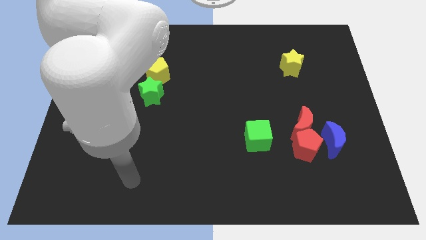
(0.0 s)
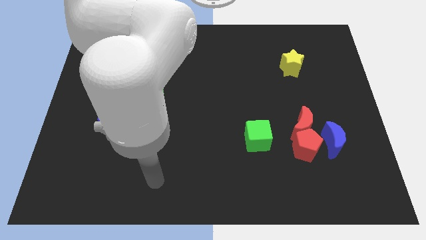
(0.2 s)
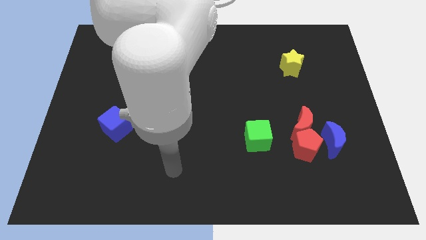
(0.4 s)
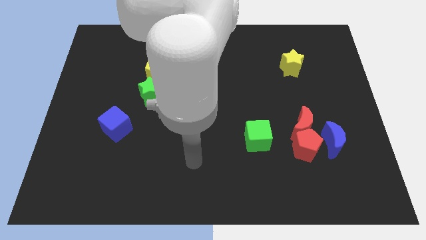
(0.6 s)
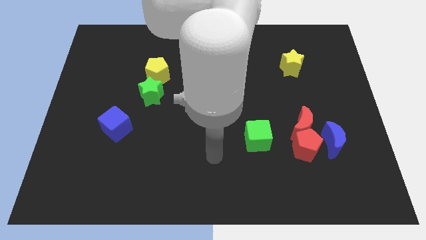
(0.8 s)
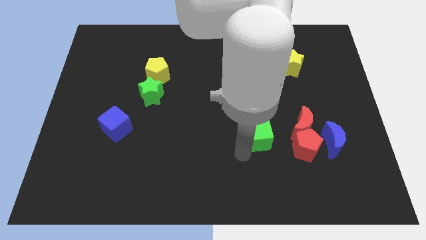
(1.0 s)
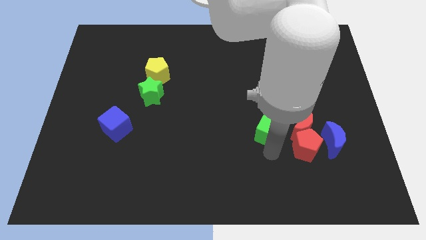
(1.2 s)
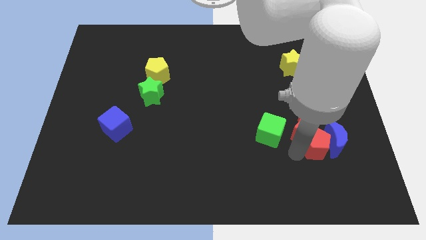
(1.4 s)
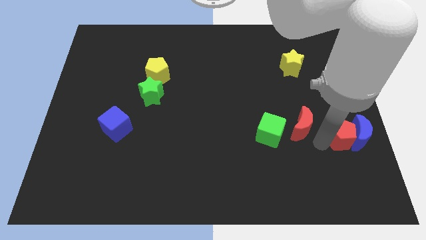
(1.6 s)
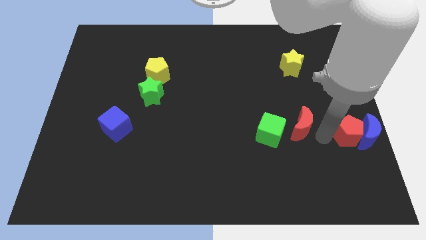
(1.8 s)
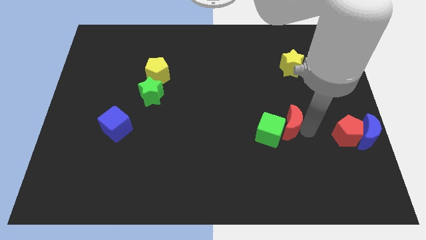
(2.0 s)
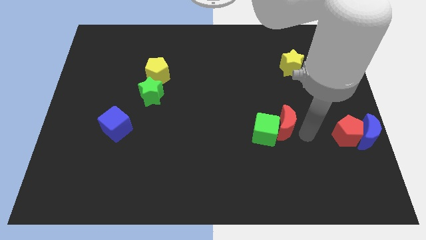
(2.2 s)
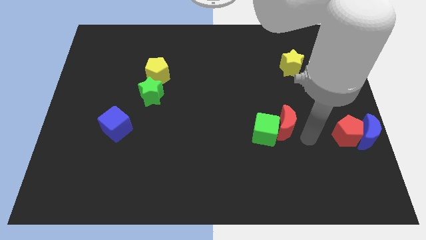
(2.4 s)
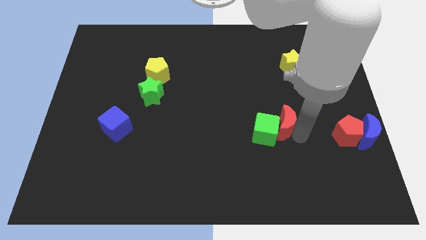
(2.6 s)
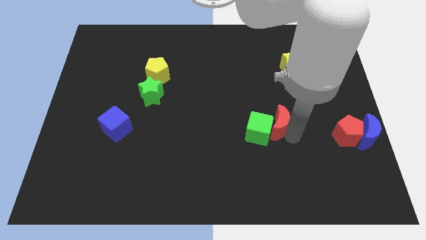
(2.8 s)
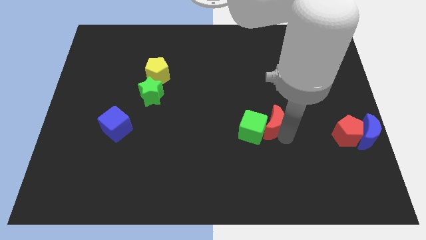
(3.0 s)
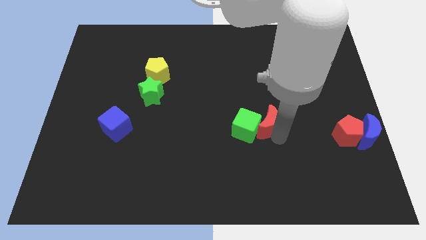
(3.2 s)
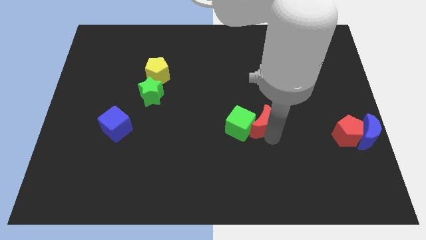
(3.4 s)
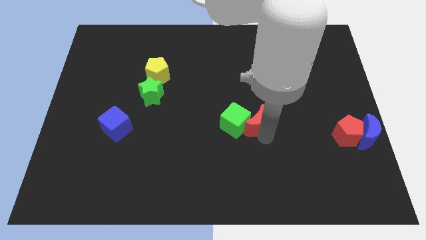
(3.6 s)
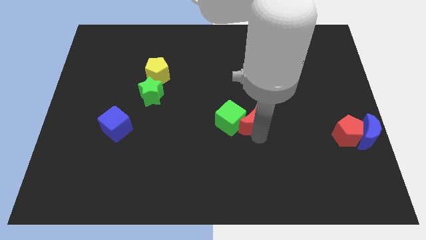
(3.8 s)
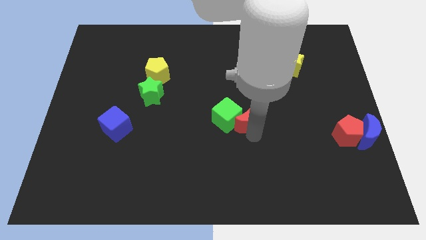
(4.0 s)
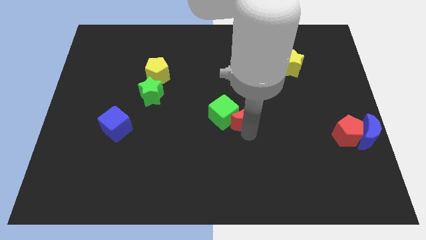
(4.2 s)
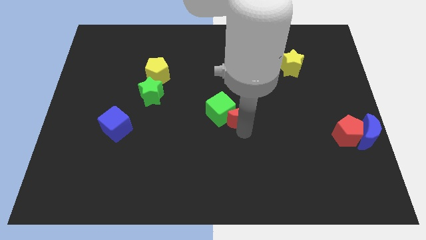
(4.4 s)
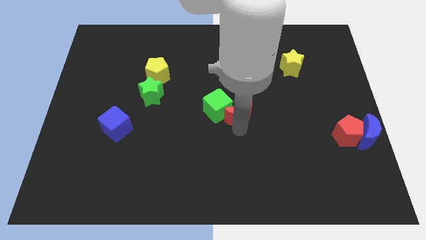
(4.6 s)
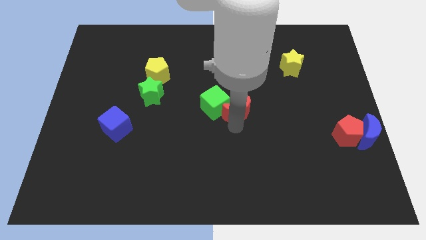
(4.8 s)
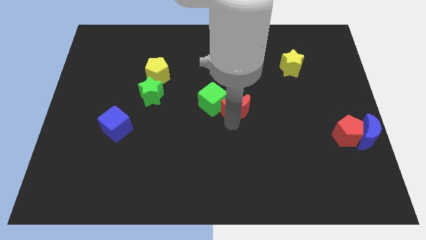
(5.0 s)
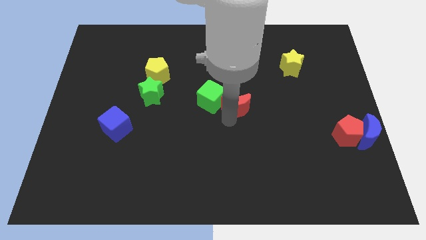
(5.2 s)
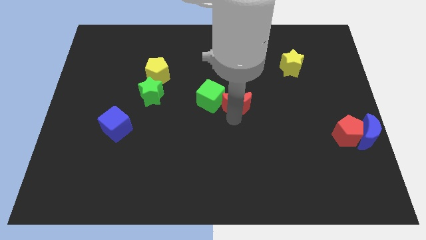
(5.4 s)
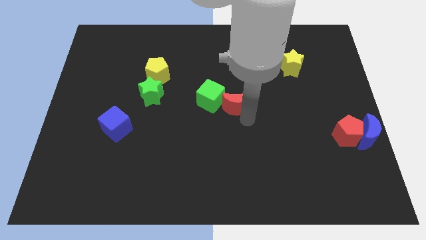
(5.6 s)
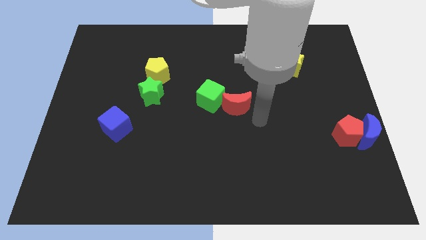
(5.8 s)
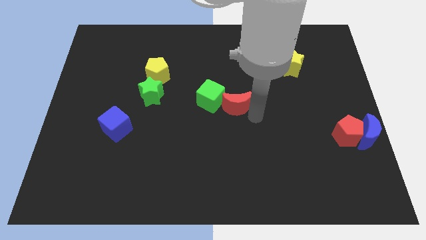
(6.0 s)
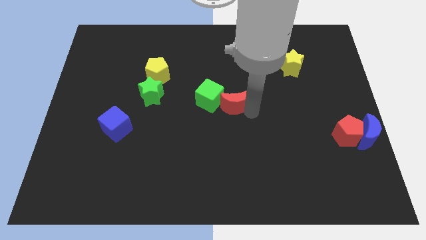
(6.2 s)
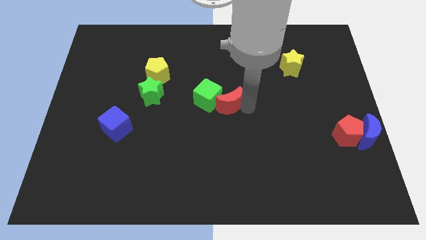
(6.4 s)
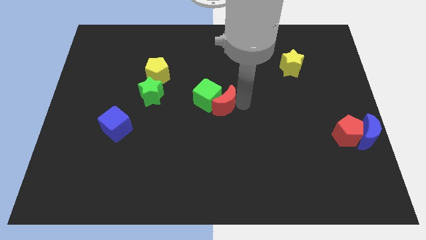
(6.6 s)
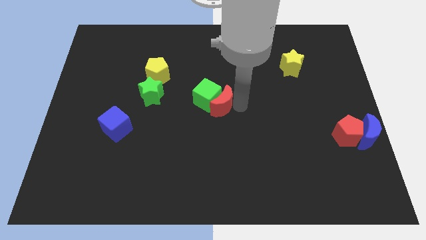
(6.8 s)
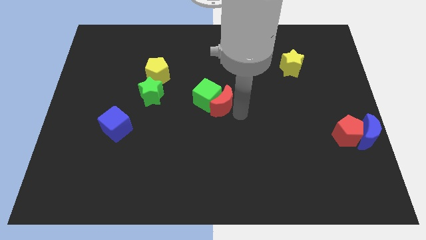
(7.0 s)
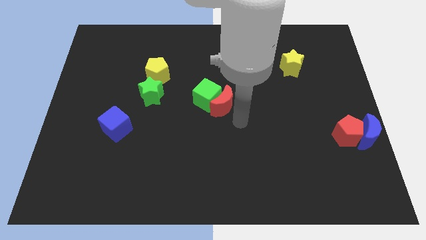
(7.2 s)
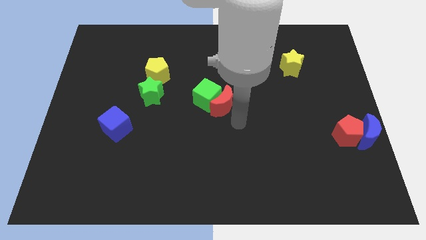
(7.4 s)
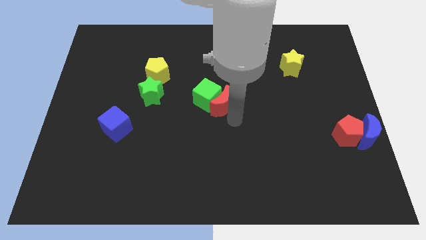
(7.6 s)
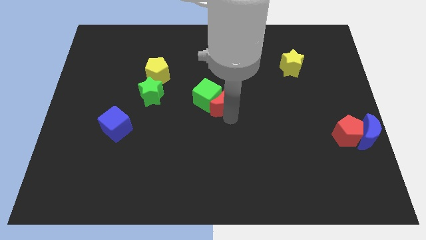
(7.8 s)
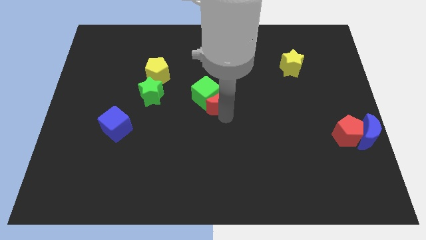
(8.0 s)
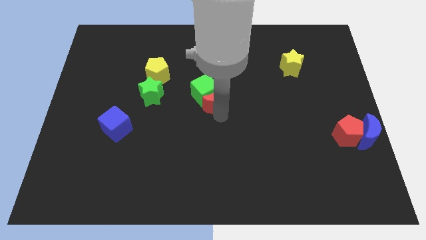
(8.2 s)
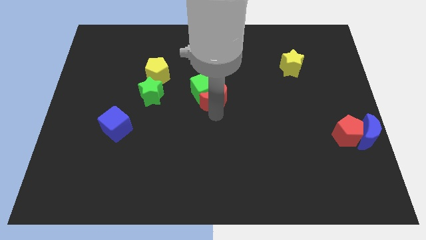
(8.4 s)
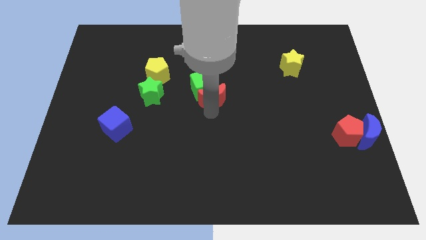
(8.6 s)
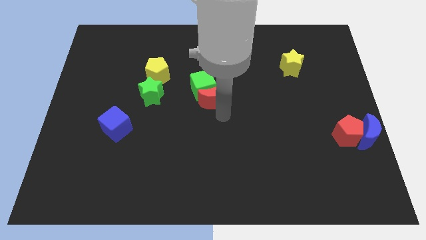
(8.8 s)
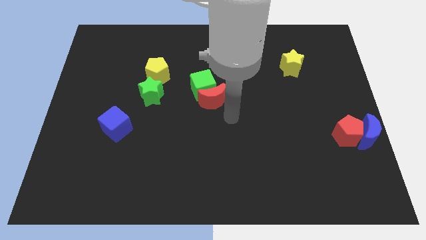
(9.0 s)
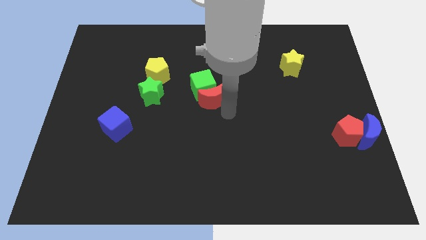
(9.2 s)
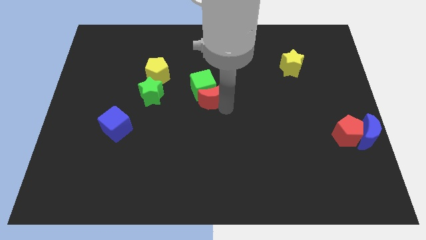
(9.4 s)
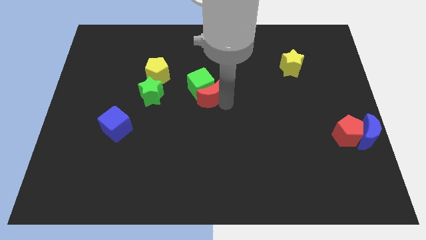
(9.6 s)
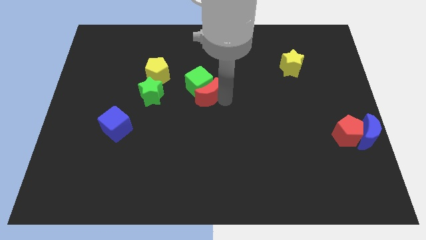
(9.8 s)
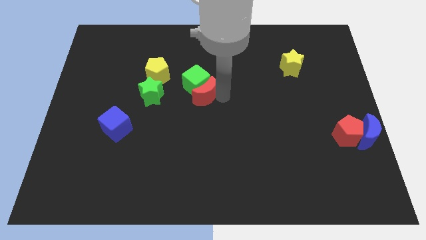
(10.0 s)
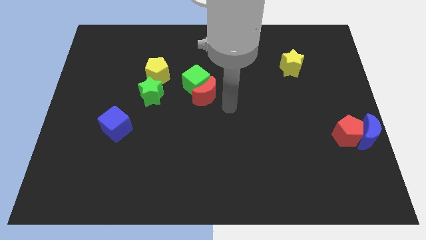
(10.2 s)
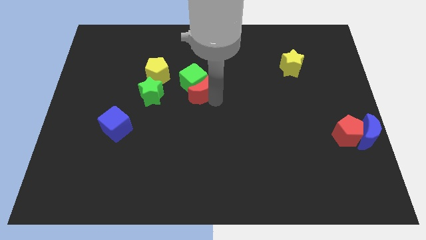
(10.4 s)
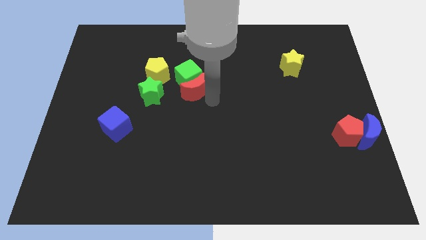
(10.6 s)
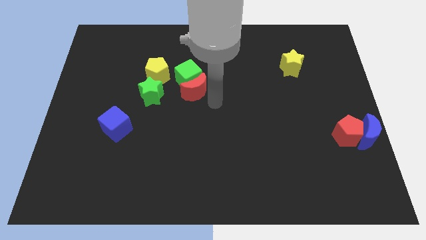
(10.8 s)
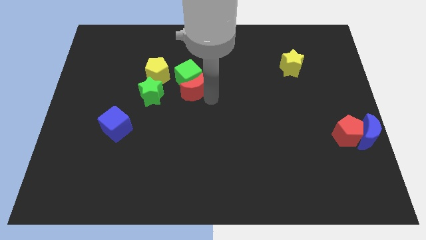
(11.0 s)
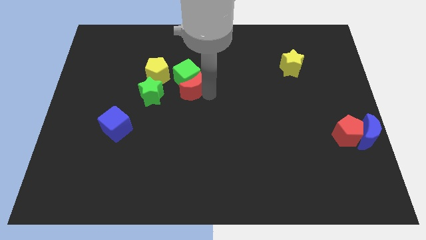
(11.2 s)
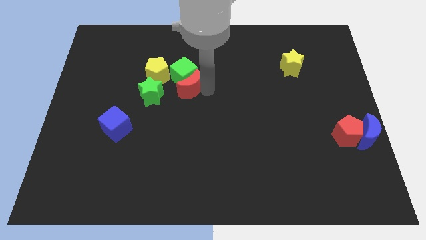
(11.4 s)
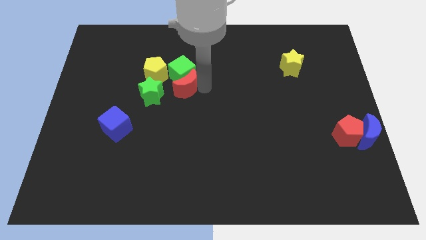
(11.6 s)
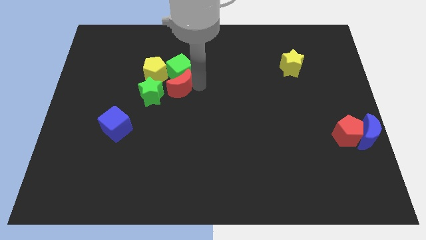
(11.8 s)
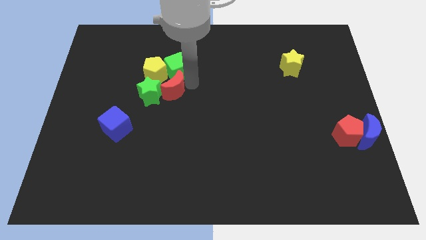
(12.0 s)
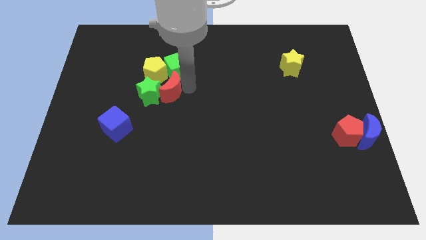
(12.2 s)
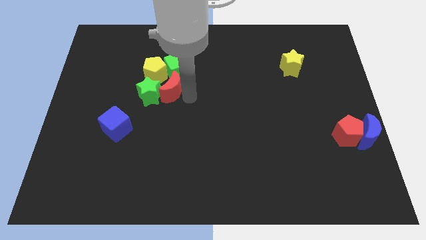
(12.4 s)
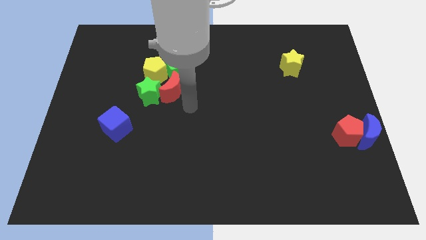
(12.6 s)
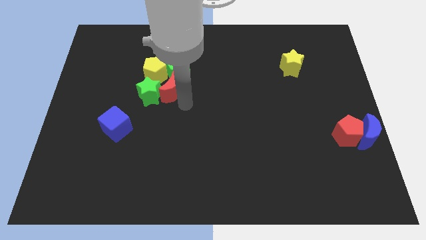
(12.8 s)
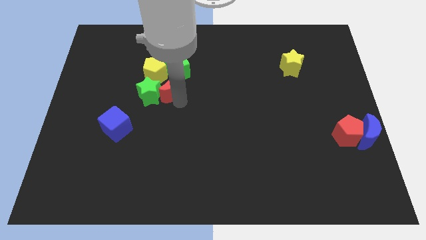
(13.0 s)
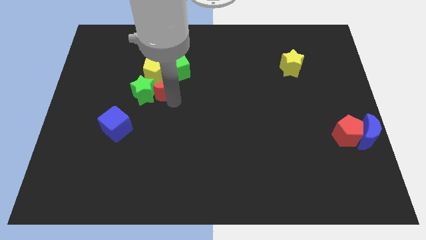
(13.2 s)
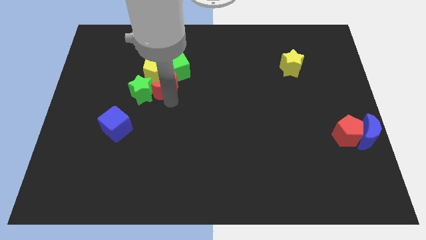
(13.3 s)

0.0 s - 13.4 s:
put the red moon close to the yellow pentagon

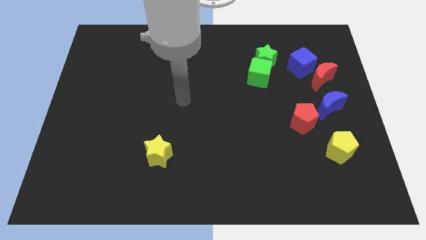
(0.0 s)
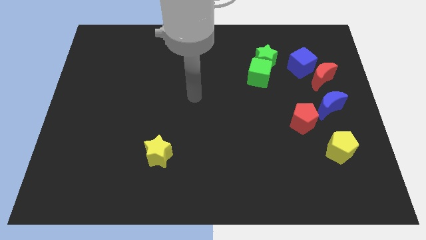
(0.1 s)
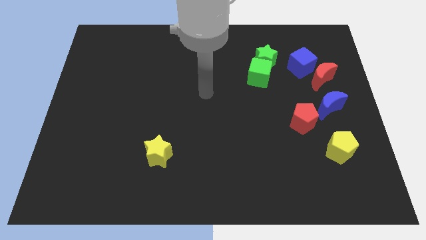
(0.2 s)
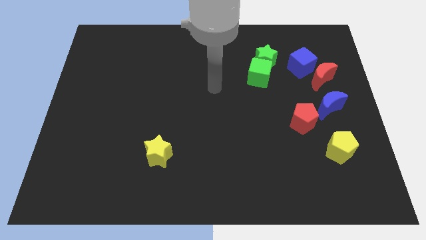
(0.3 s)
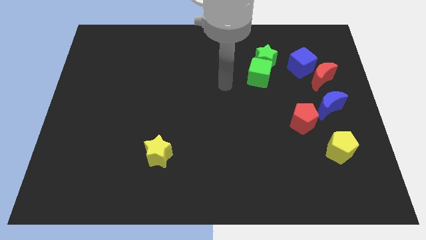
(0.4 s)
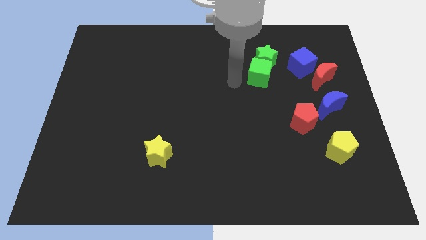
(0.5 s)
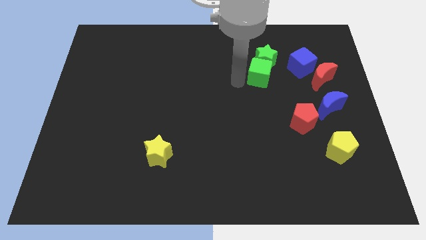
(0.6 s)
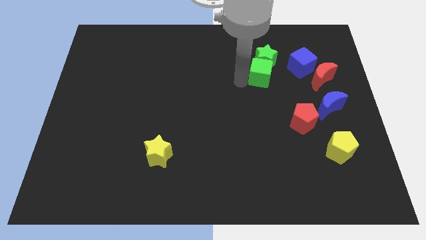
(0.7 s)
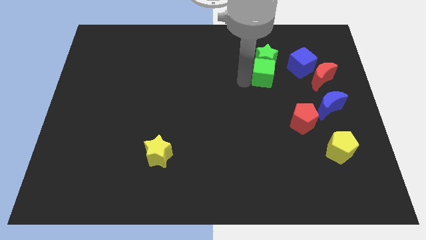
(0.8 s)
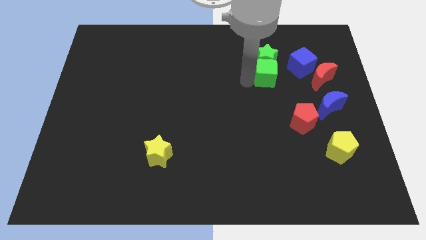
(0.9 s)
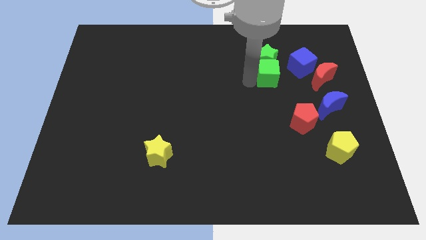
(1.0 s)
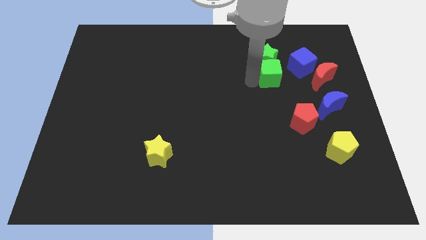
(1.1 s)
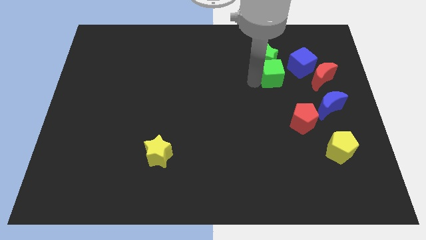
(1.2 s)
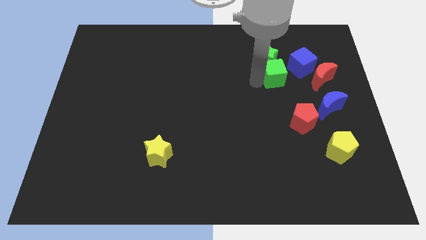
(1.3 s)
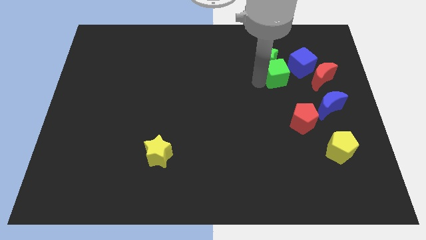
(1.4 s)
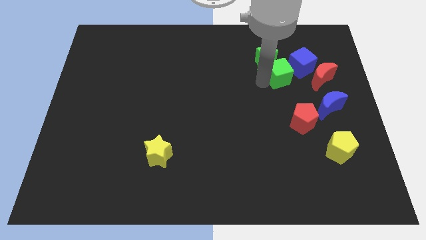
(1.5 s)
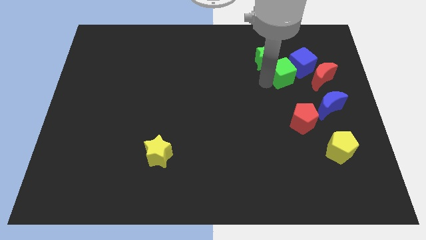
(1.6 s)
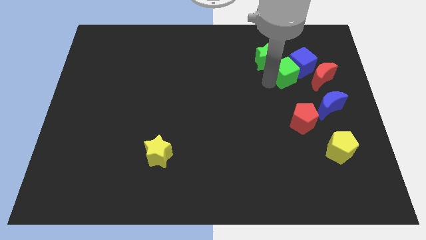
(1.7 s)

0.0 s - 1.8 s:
put the green cube to the blue cube
